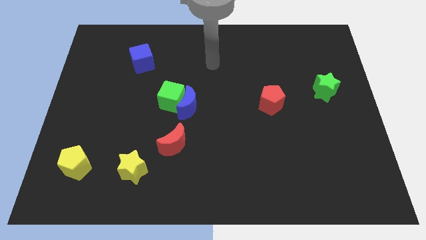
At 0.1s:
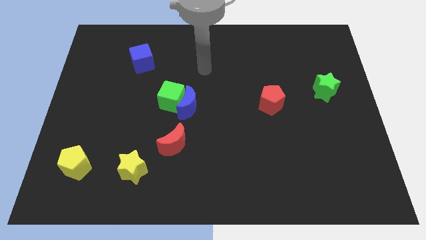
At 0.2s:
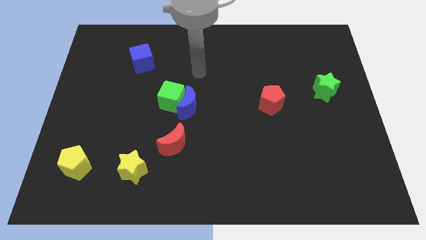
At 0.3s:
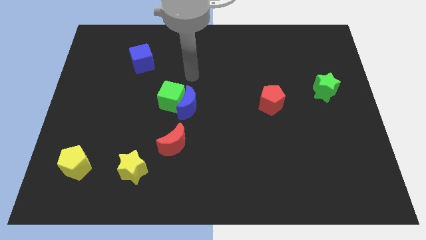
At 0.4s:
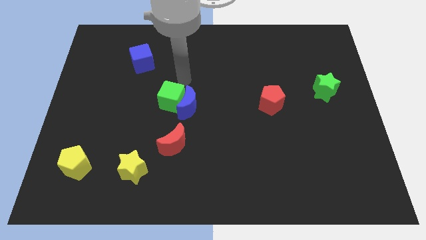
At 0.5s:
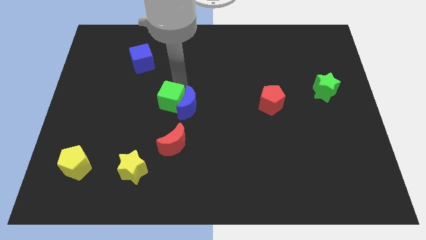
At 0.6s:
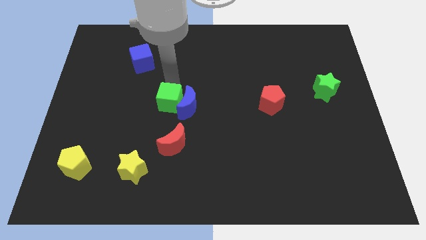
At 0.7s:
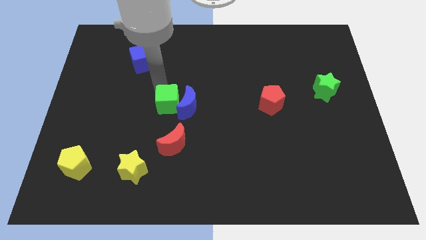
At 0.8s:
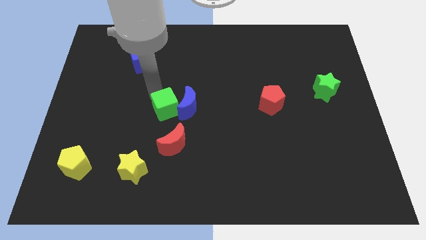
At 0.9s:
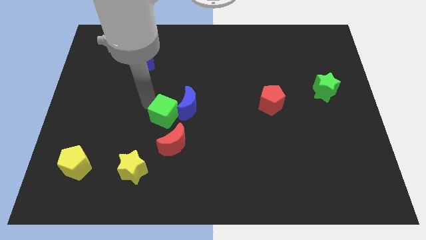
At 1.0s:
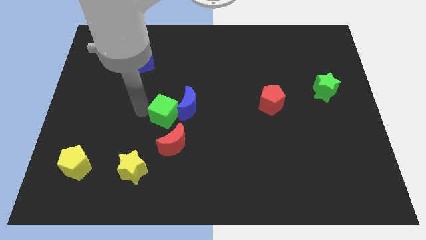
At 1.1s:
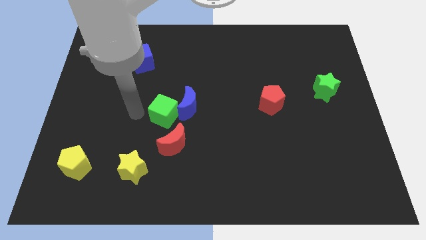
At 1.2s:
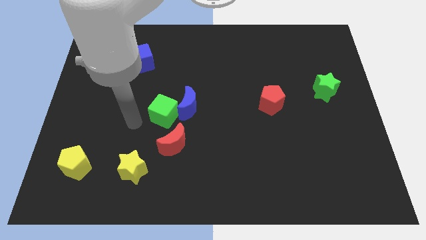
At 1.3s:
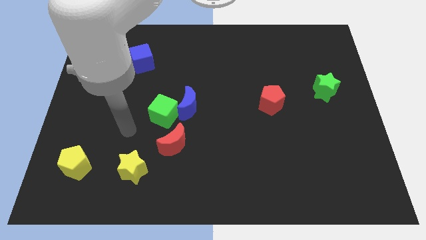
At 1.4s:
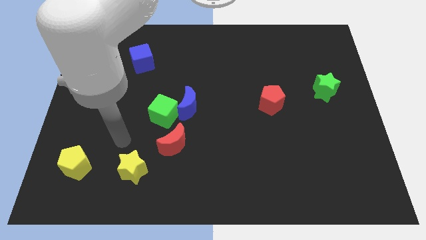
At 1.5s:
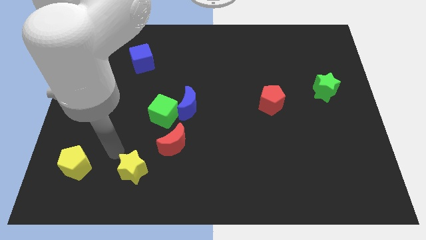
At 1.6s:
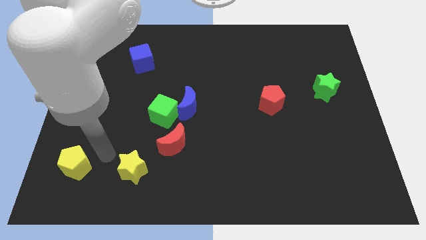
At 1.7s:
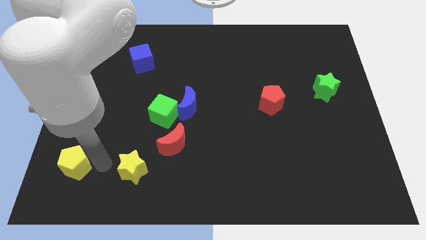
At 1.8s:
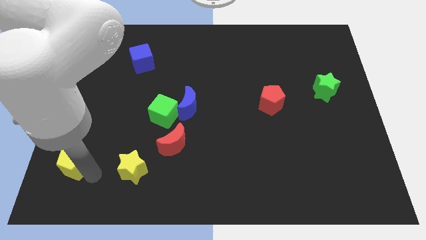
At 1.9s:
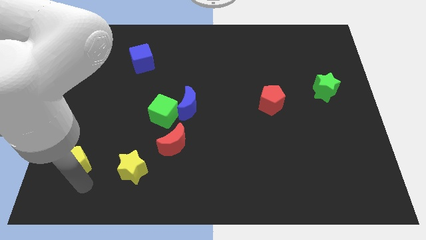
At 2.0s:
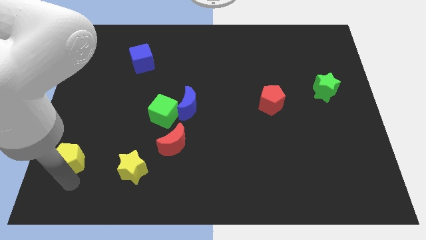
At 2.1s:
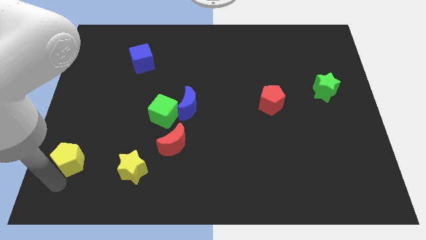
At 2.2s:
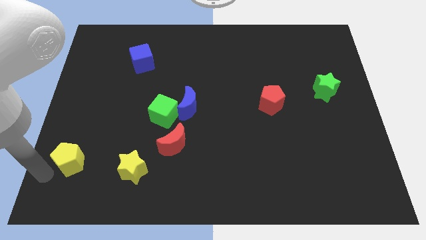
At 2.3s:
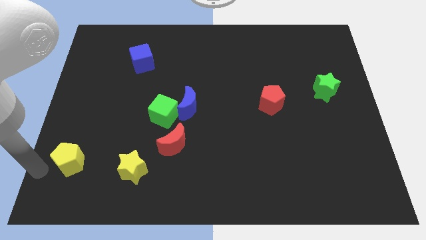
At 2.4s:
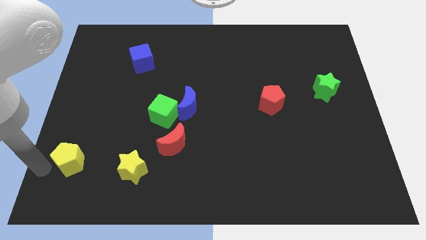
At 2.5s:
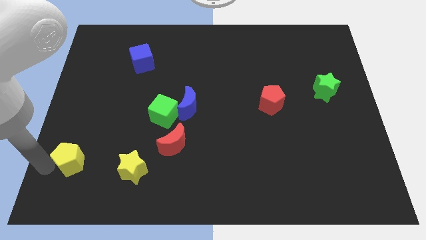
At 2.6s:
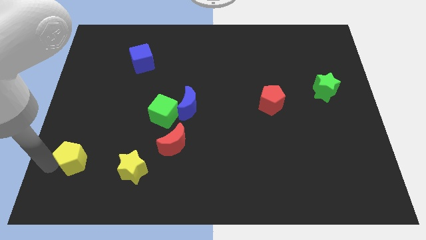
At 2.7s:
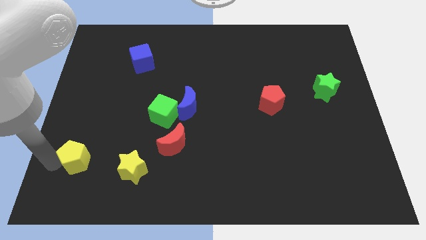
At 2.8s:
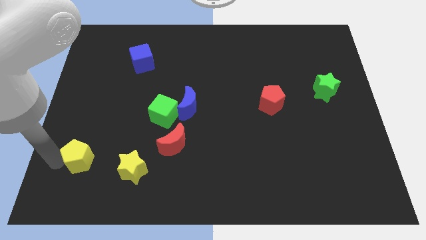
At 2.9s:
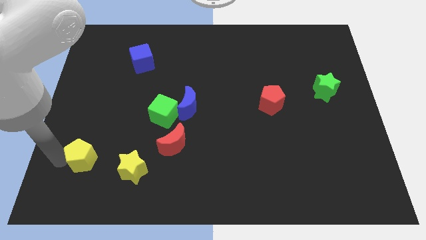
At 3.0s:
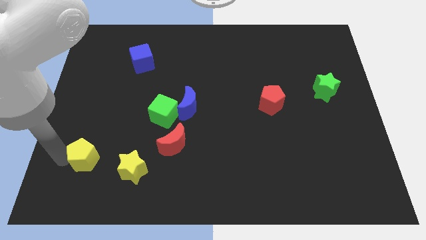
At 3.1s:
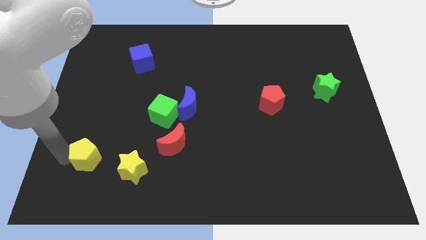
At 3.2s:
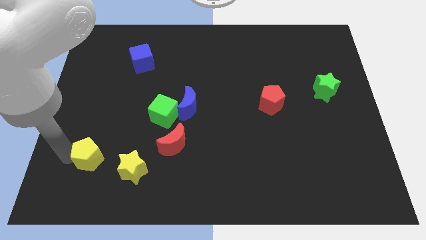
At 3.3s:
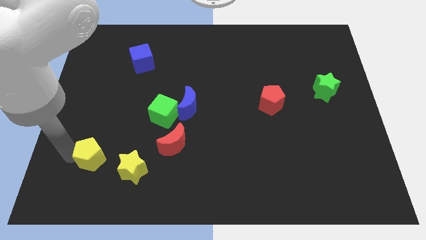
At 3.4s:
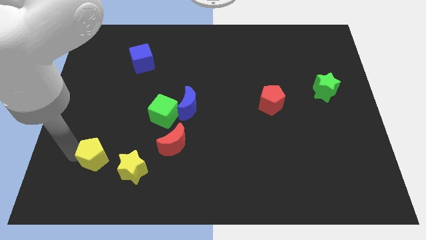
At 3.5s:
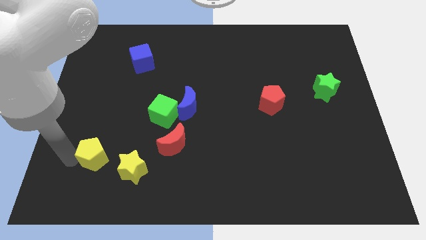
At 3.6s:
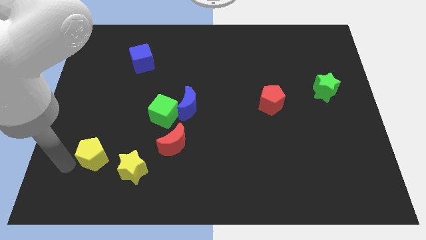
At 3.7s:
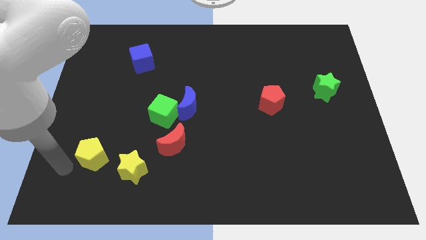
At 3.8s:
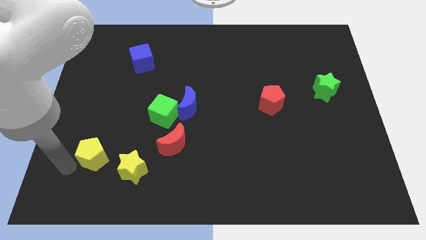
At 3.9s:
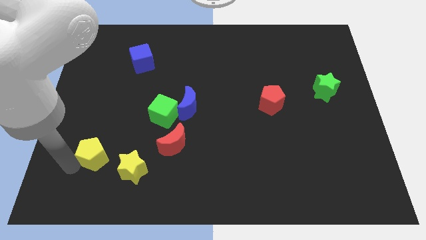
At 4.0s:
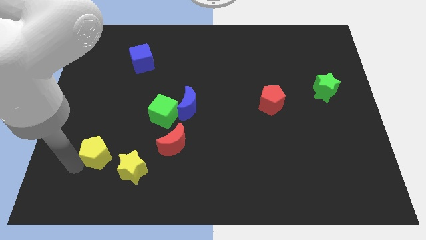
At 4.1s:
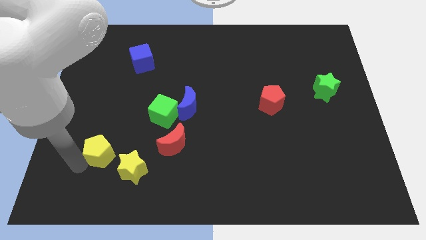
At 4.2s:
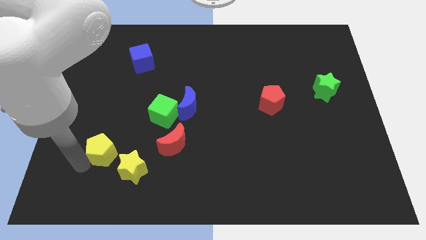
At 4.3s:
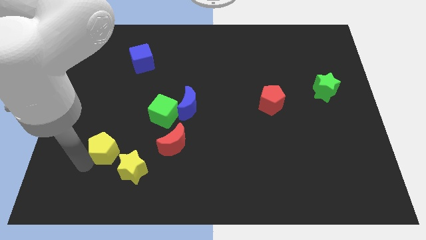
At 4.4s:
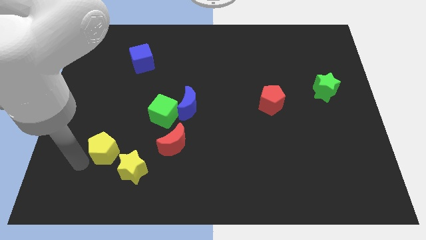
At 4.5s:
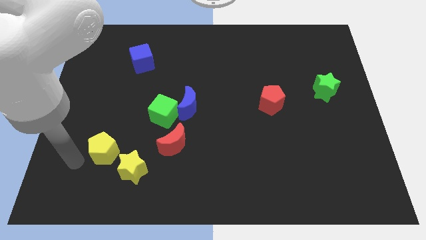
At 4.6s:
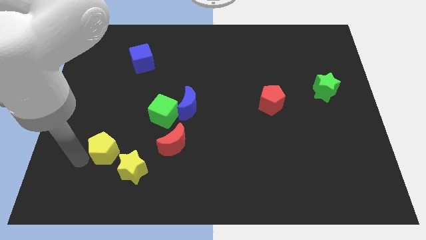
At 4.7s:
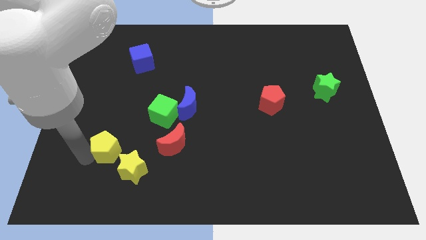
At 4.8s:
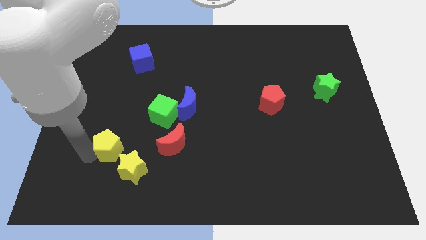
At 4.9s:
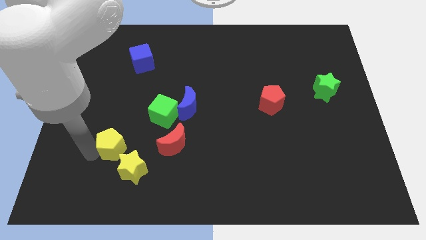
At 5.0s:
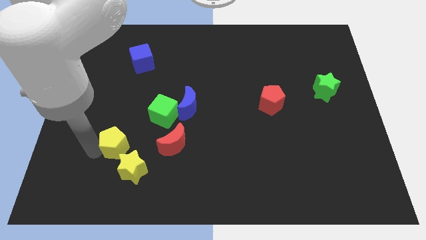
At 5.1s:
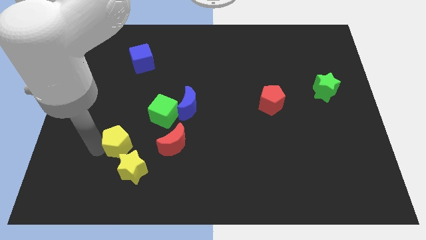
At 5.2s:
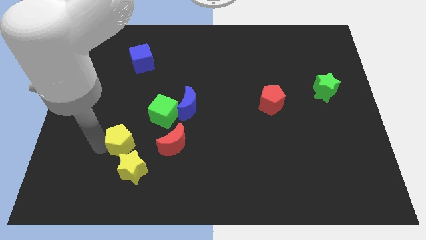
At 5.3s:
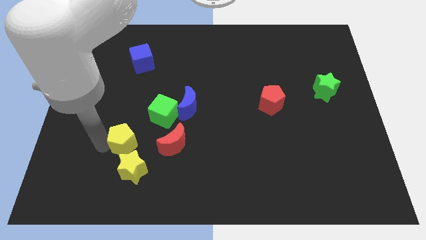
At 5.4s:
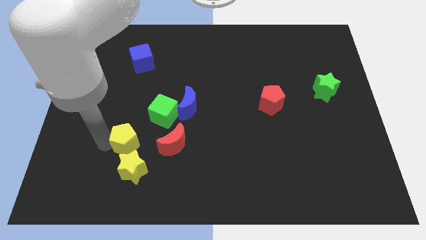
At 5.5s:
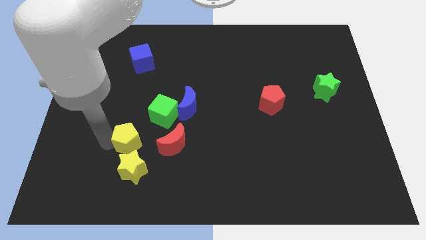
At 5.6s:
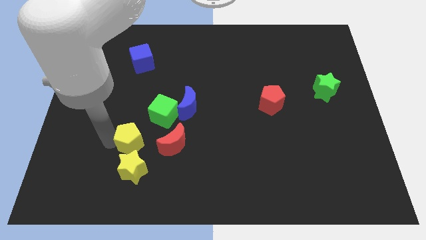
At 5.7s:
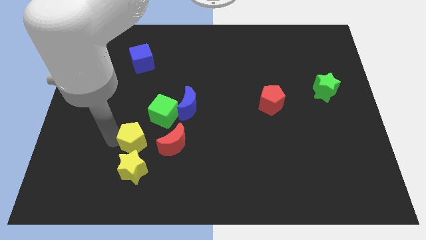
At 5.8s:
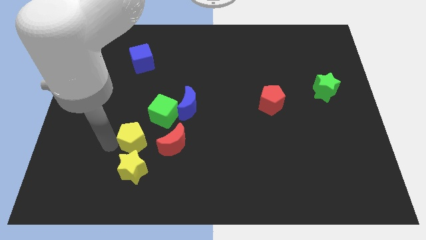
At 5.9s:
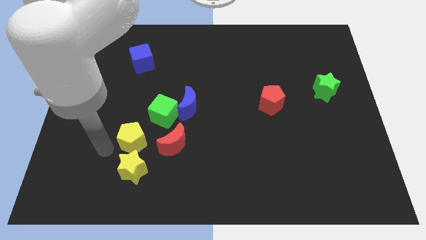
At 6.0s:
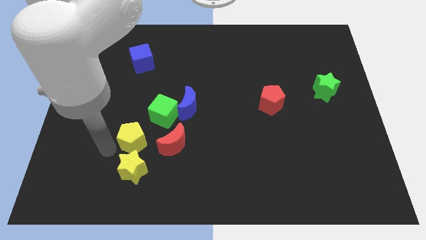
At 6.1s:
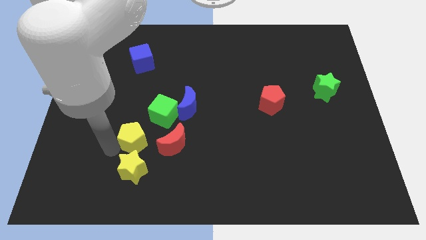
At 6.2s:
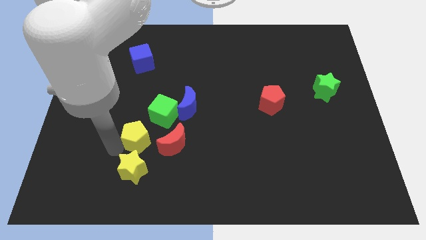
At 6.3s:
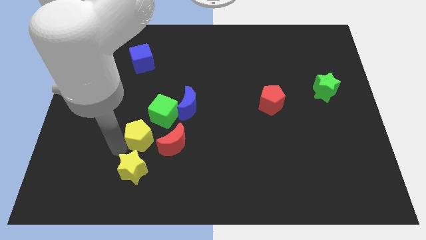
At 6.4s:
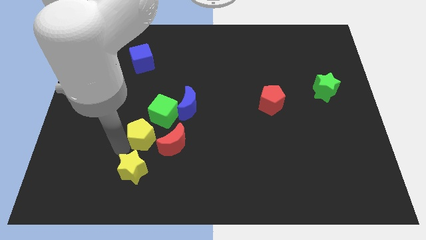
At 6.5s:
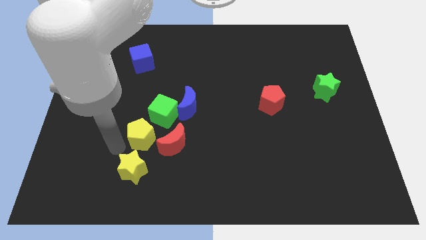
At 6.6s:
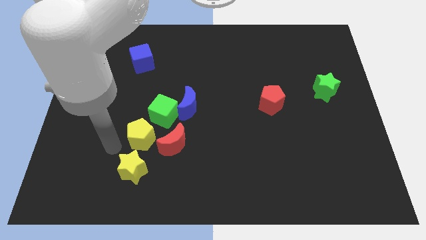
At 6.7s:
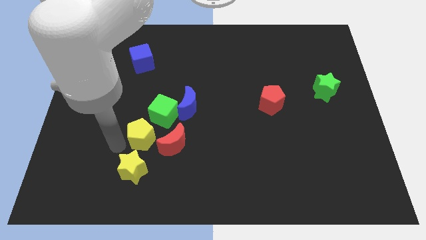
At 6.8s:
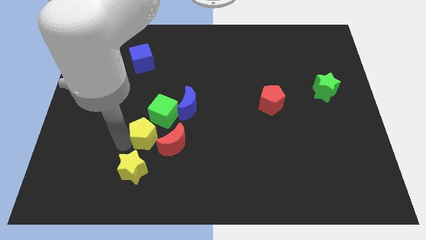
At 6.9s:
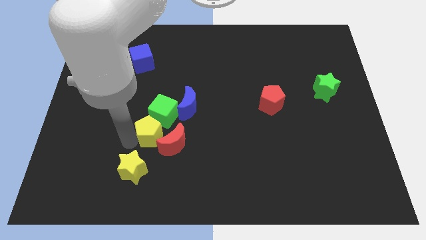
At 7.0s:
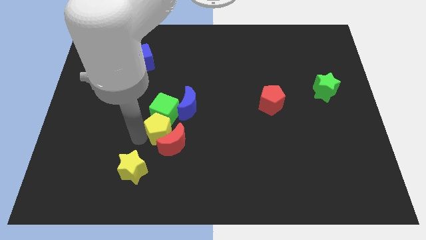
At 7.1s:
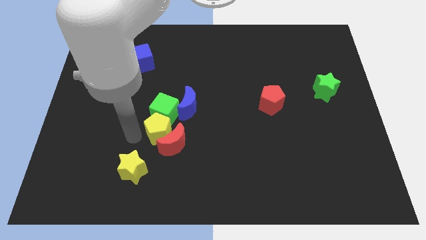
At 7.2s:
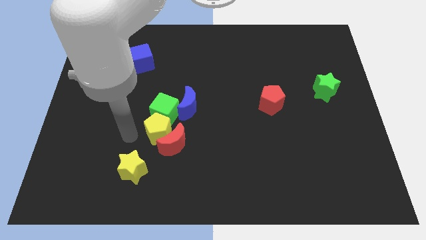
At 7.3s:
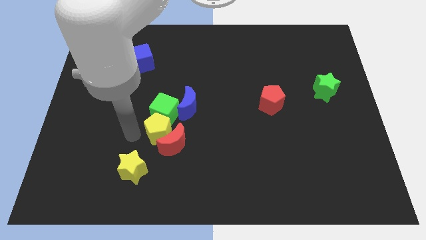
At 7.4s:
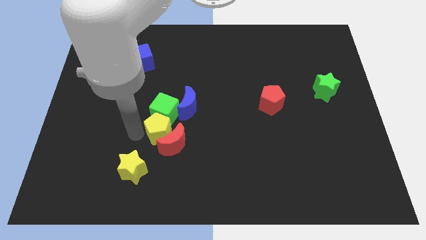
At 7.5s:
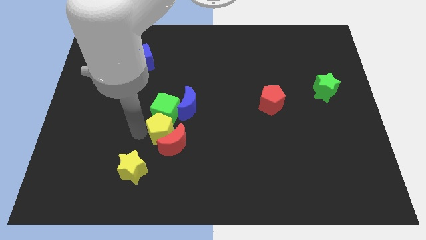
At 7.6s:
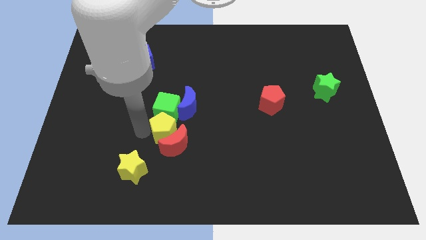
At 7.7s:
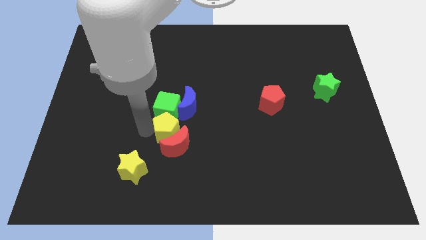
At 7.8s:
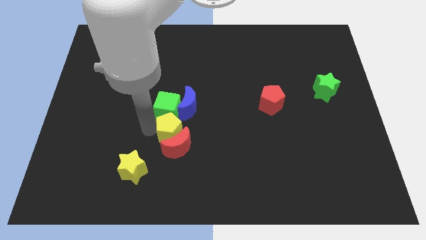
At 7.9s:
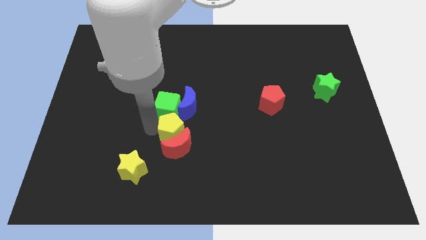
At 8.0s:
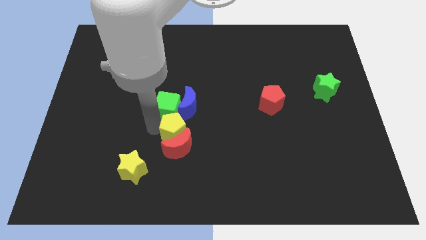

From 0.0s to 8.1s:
put the yellow pentagon to the center
